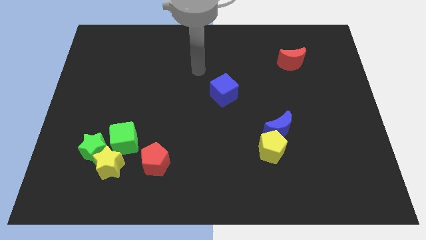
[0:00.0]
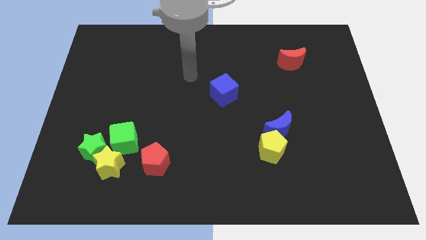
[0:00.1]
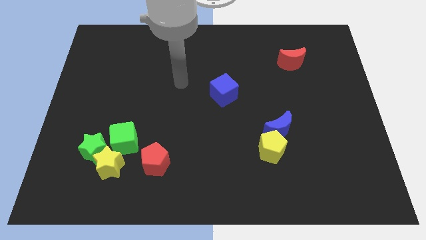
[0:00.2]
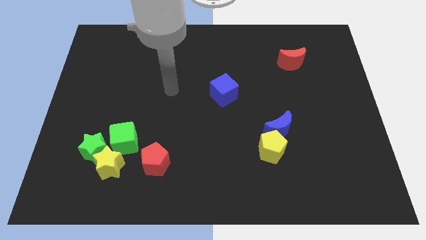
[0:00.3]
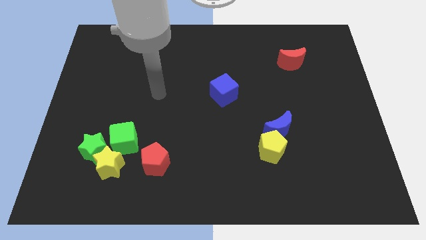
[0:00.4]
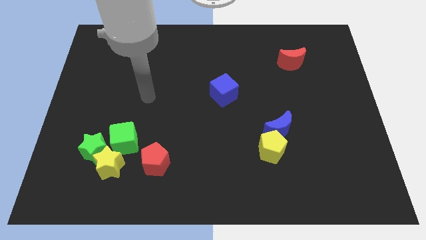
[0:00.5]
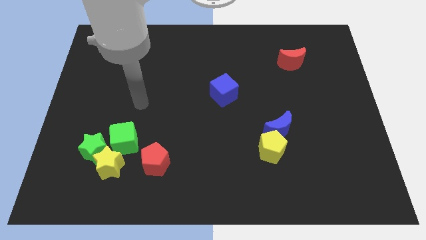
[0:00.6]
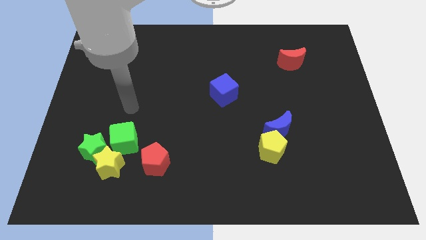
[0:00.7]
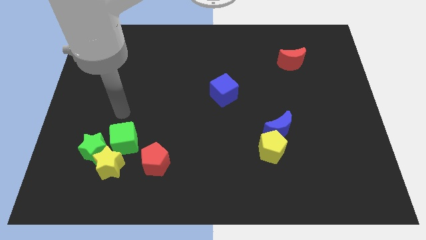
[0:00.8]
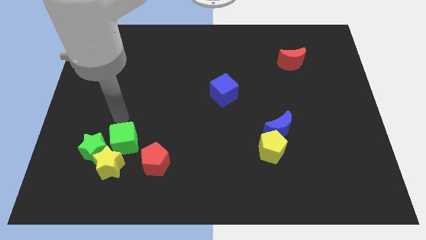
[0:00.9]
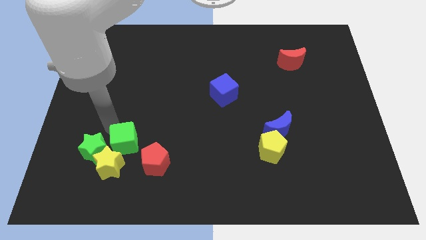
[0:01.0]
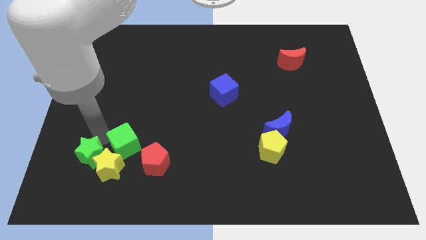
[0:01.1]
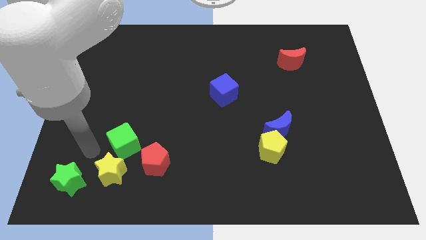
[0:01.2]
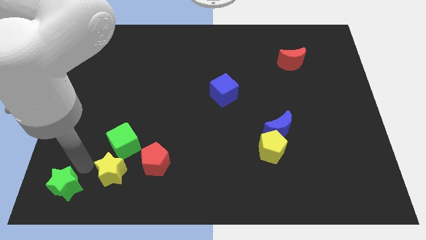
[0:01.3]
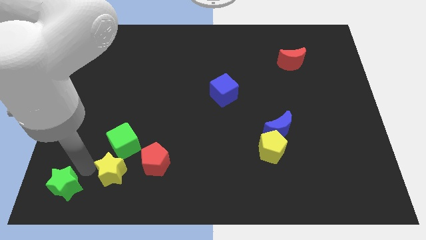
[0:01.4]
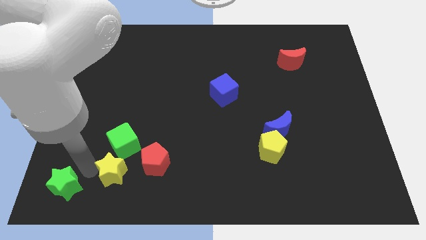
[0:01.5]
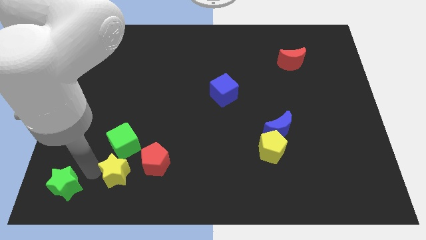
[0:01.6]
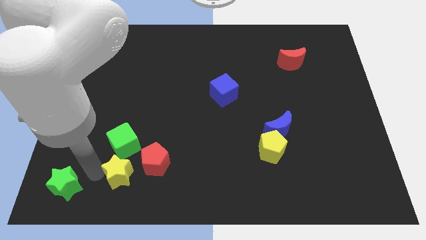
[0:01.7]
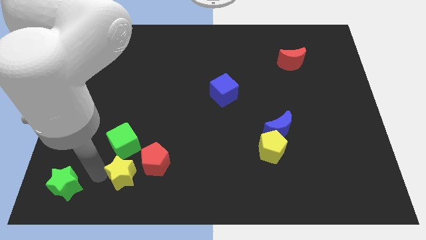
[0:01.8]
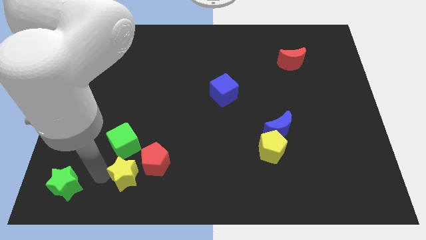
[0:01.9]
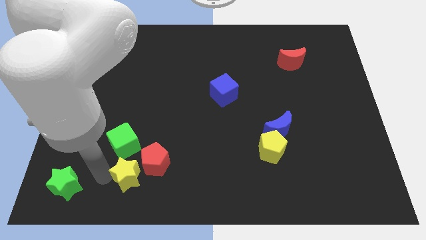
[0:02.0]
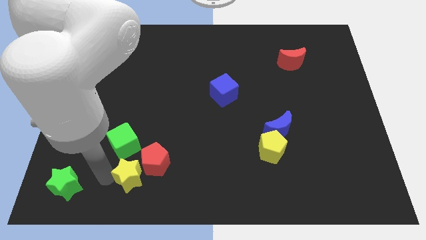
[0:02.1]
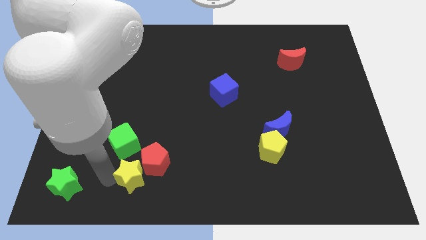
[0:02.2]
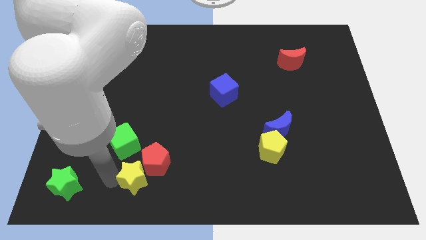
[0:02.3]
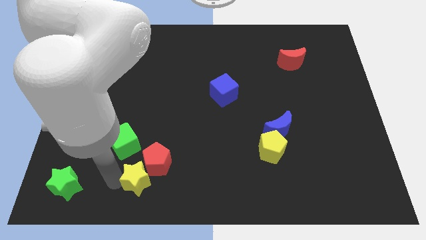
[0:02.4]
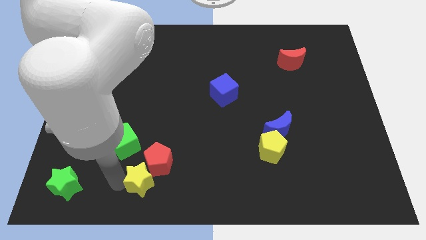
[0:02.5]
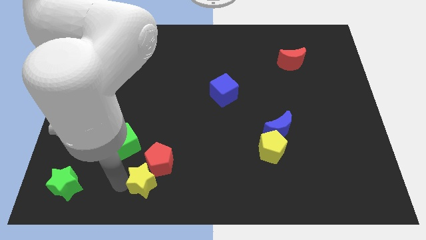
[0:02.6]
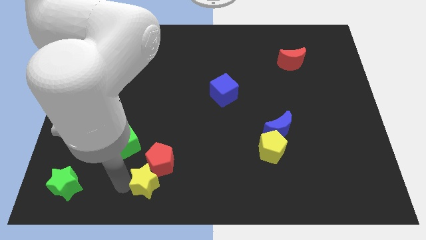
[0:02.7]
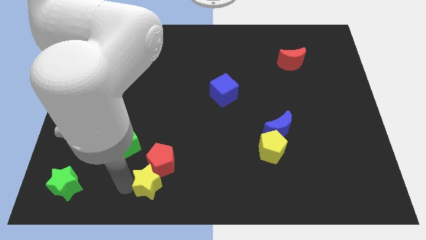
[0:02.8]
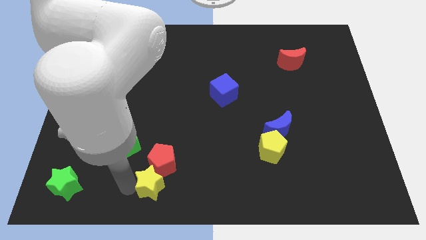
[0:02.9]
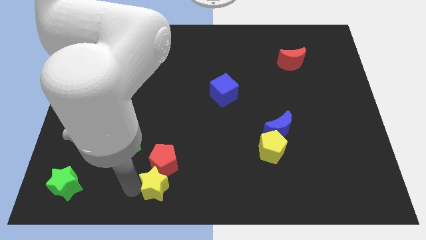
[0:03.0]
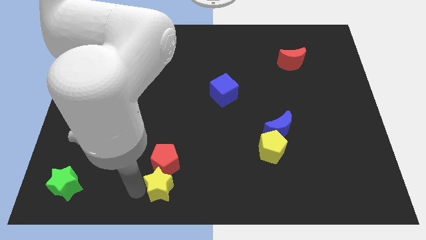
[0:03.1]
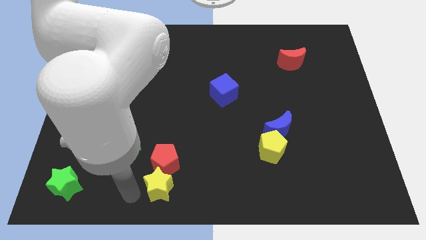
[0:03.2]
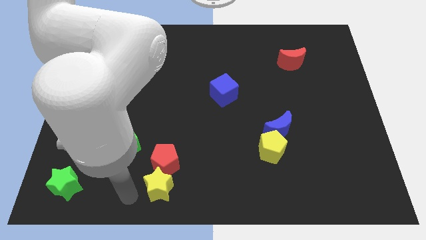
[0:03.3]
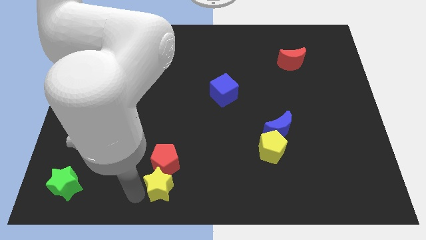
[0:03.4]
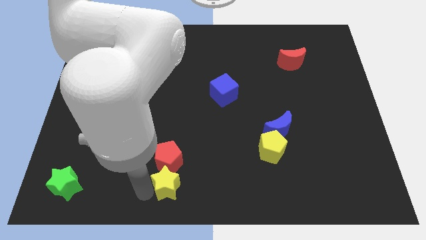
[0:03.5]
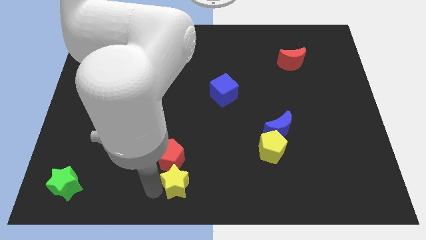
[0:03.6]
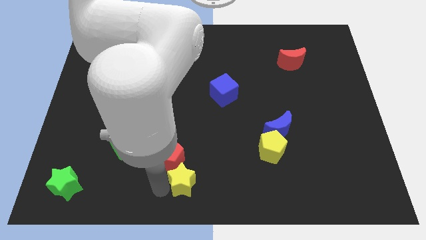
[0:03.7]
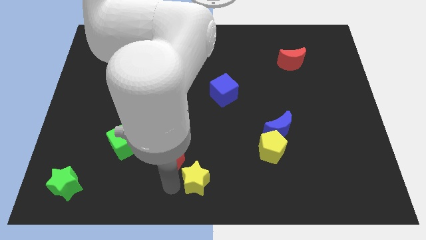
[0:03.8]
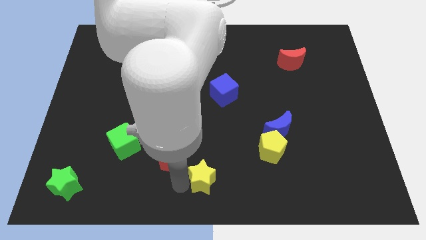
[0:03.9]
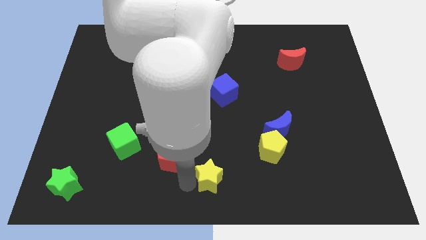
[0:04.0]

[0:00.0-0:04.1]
slide the yellow star to the right

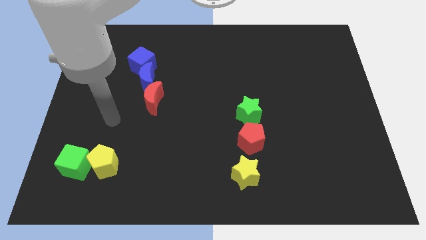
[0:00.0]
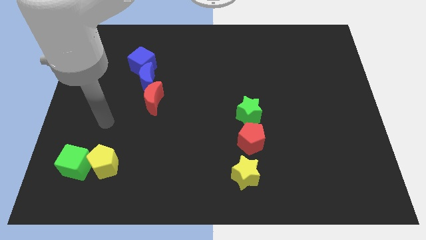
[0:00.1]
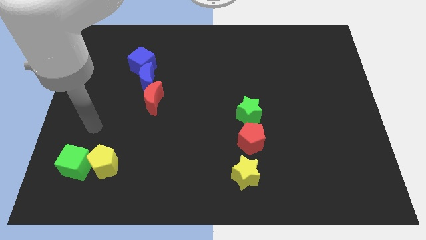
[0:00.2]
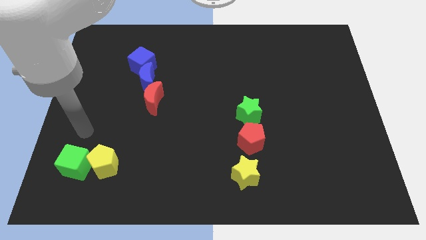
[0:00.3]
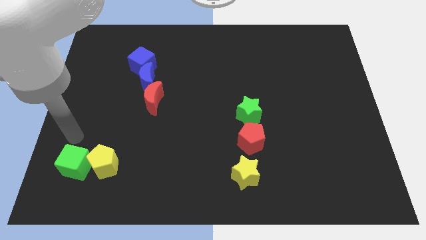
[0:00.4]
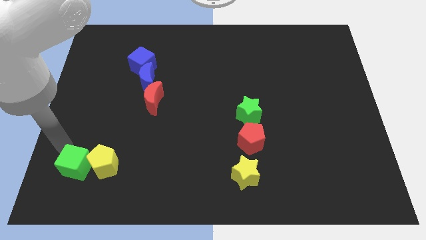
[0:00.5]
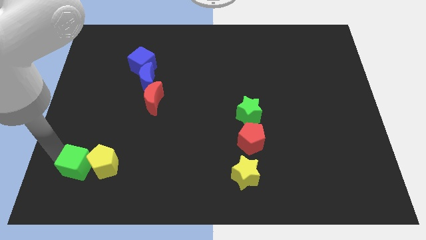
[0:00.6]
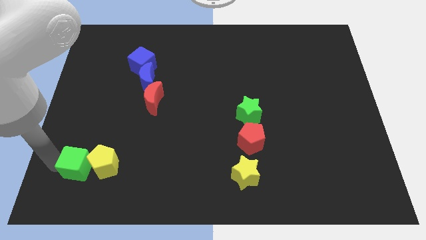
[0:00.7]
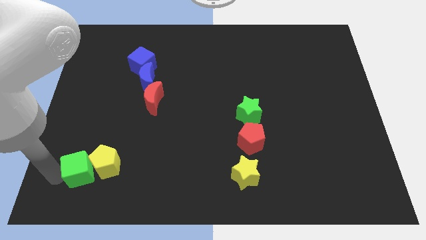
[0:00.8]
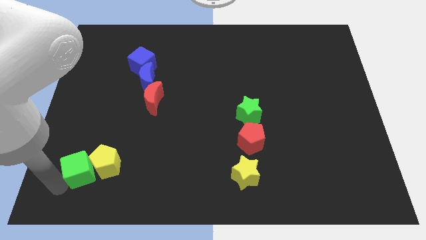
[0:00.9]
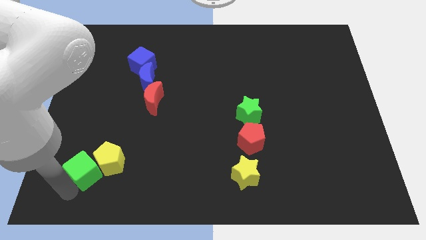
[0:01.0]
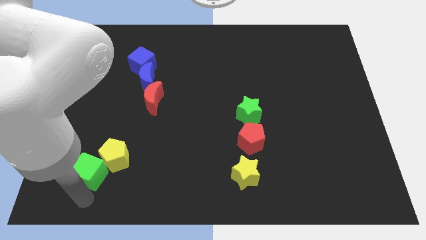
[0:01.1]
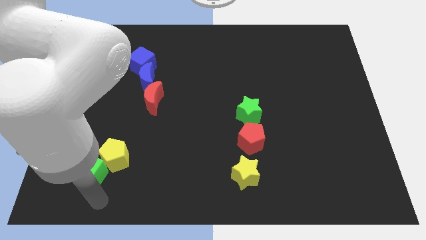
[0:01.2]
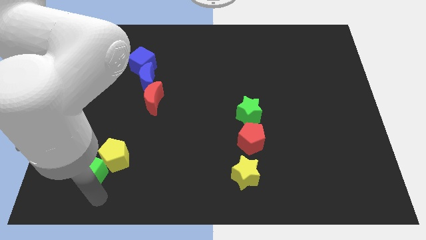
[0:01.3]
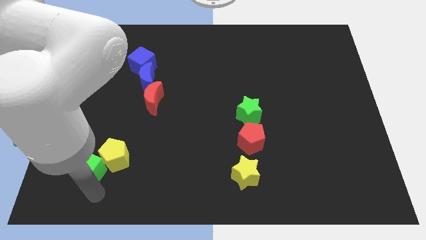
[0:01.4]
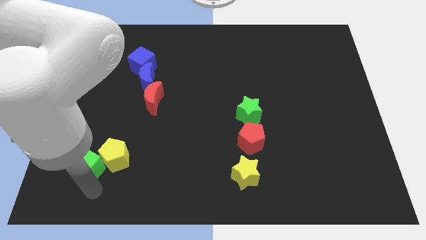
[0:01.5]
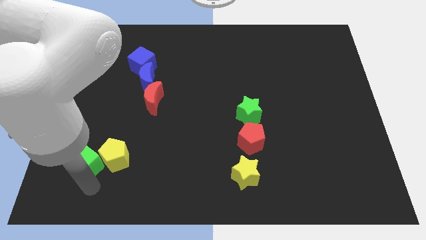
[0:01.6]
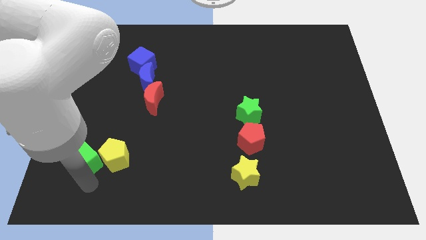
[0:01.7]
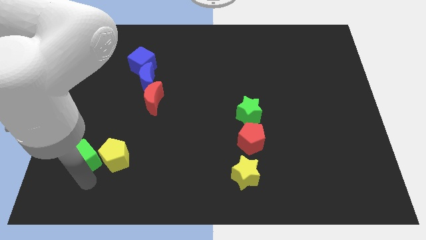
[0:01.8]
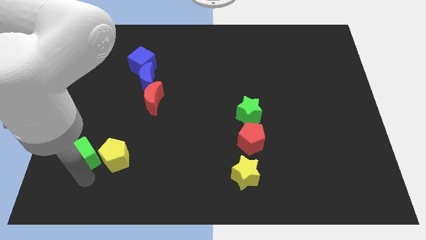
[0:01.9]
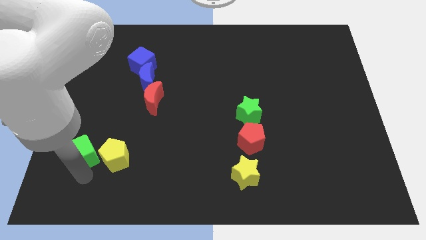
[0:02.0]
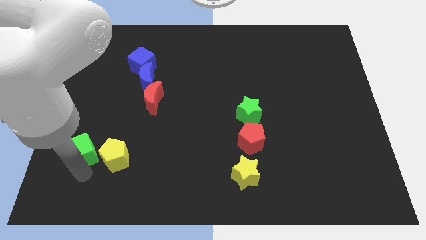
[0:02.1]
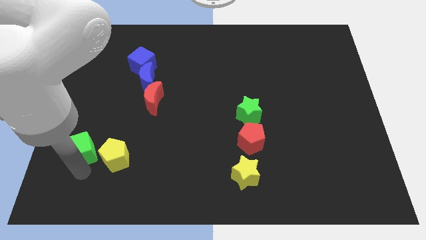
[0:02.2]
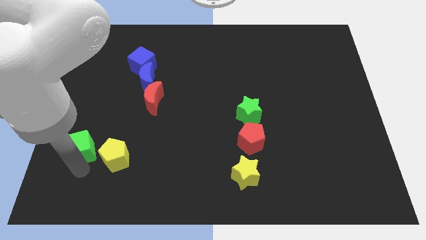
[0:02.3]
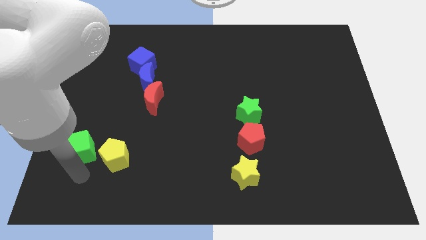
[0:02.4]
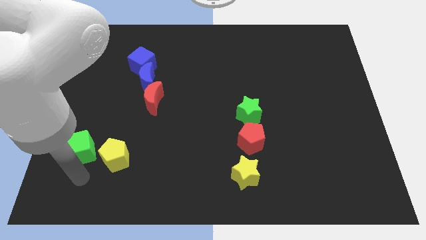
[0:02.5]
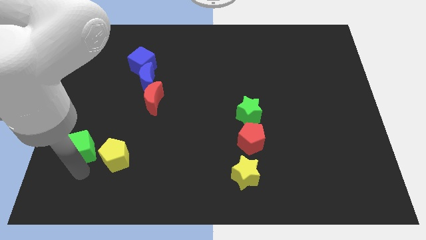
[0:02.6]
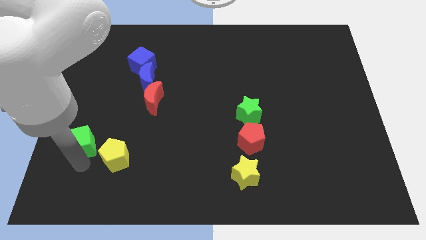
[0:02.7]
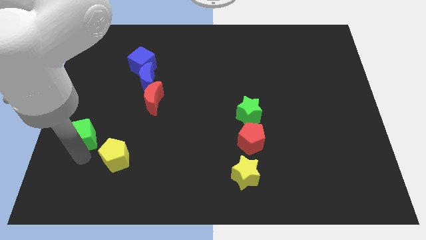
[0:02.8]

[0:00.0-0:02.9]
move the green cube up a little

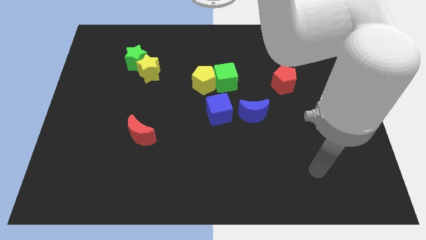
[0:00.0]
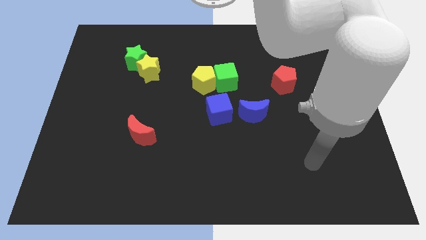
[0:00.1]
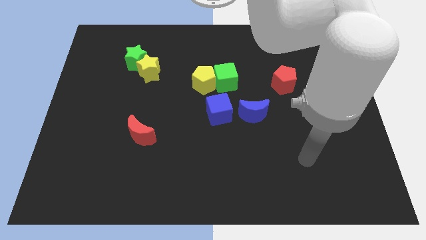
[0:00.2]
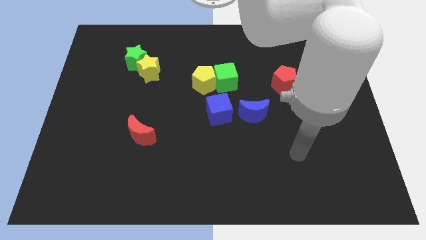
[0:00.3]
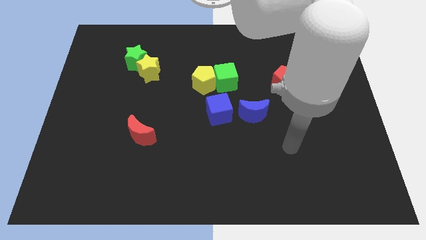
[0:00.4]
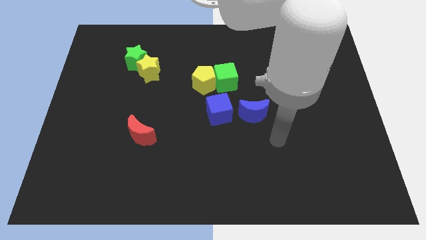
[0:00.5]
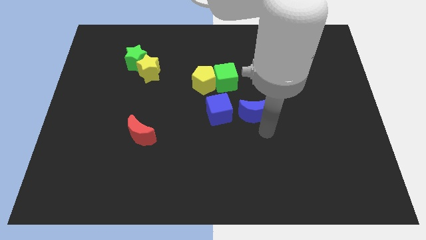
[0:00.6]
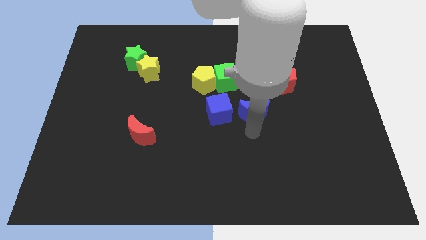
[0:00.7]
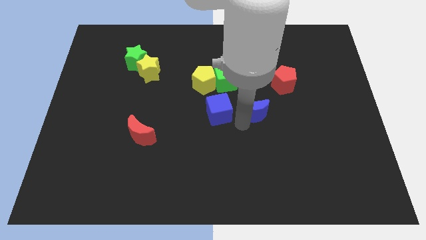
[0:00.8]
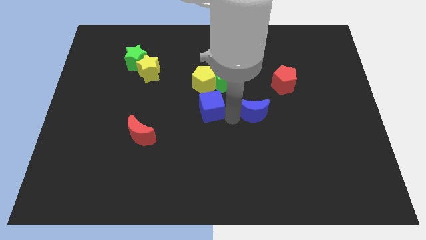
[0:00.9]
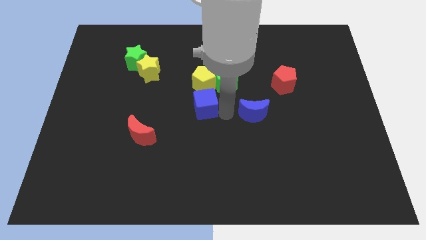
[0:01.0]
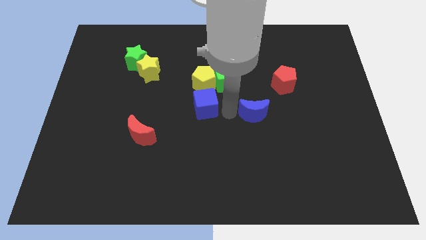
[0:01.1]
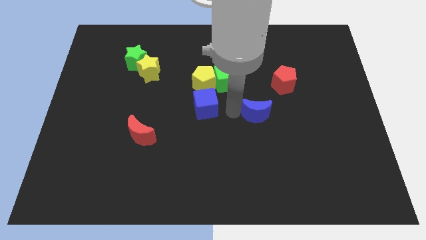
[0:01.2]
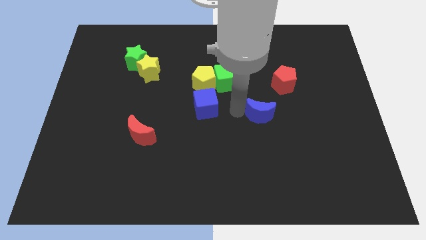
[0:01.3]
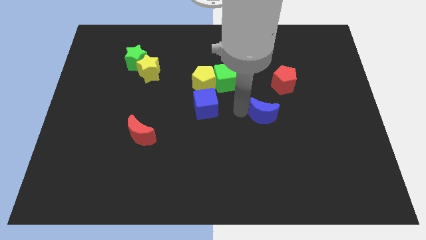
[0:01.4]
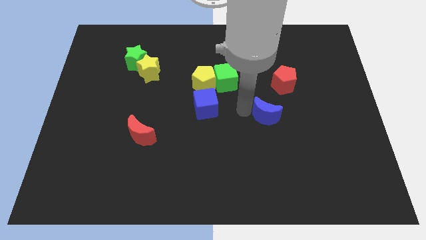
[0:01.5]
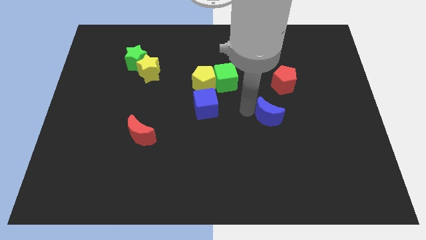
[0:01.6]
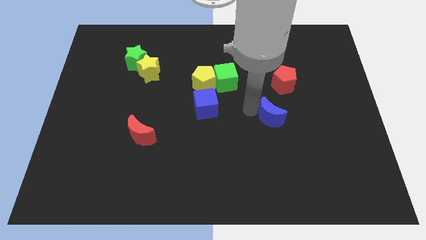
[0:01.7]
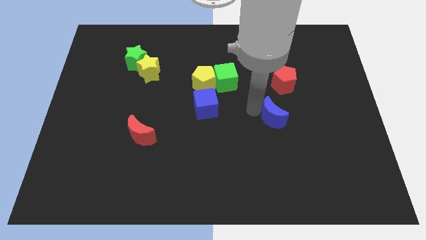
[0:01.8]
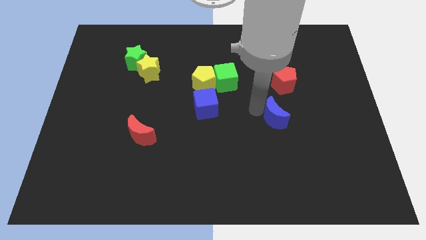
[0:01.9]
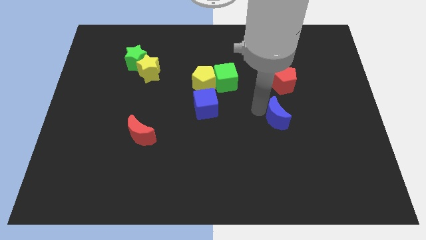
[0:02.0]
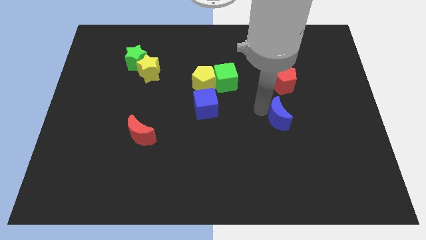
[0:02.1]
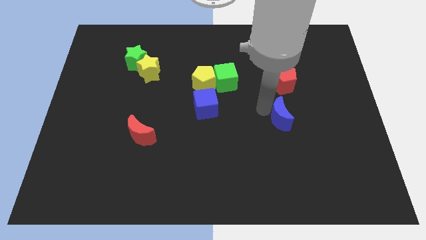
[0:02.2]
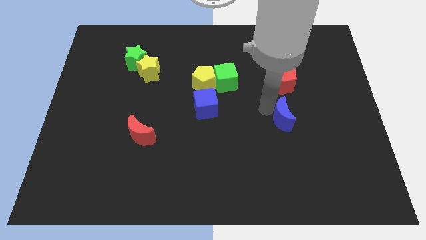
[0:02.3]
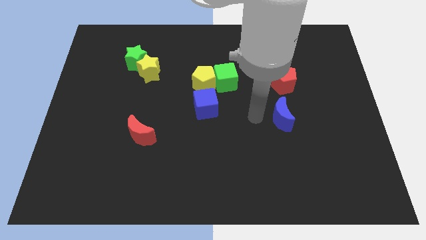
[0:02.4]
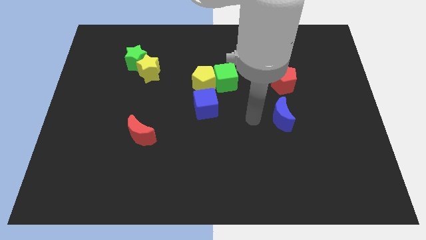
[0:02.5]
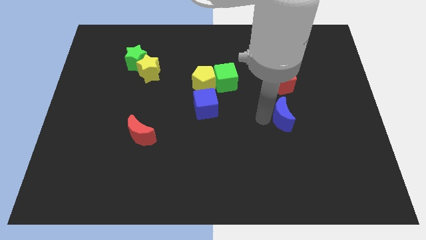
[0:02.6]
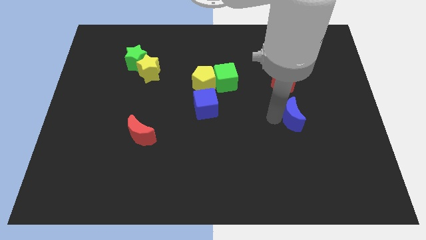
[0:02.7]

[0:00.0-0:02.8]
slightly move the blue moon right
